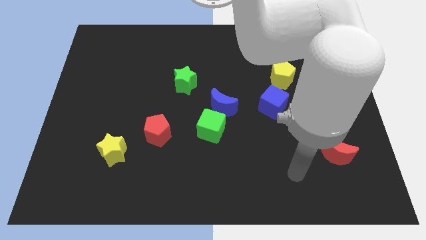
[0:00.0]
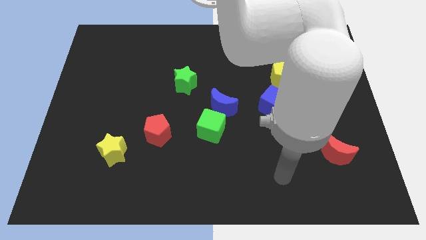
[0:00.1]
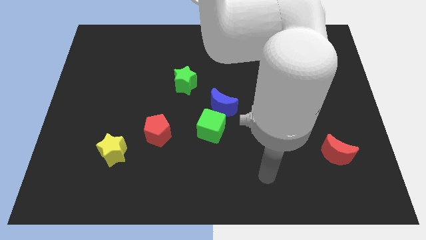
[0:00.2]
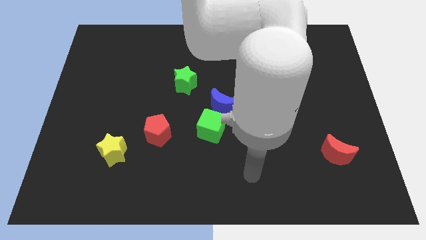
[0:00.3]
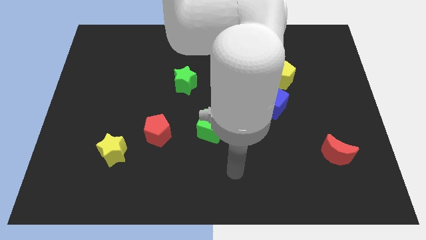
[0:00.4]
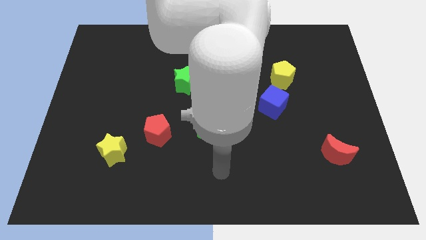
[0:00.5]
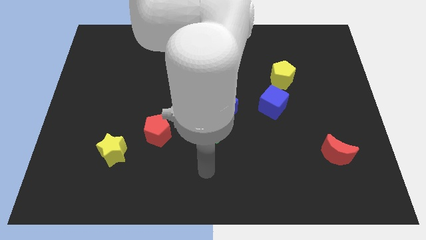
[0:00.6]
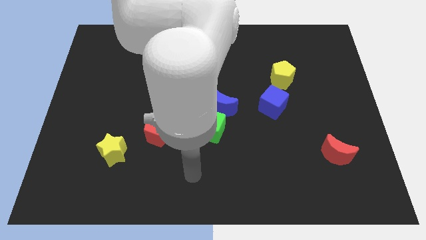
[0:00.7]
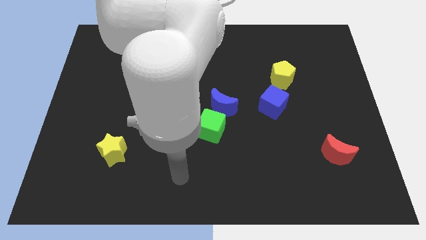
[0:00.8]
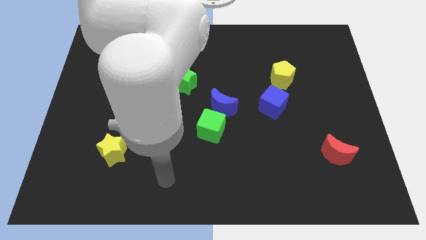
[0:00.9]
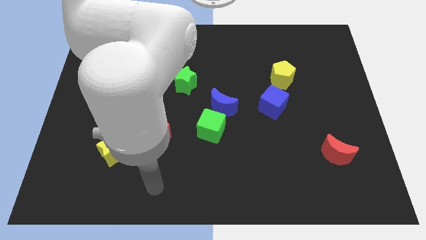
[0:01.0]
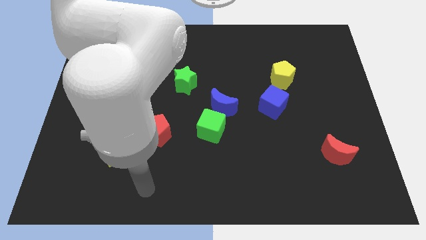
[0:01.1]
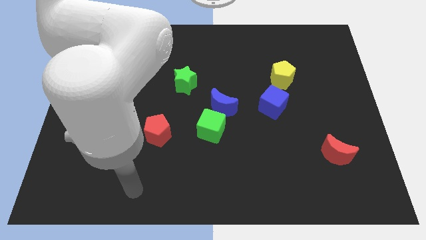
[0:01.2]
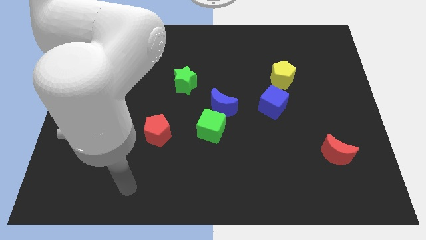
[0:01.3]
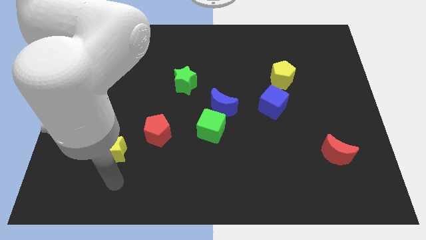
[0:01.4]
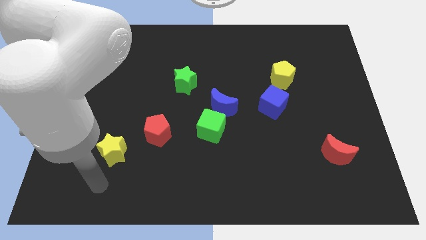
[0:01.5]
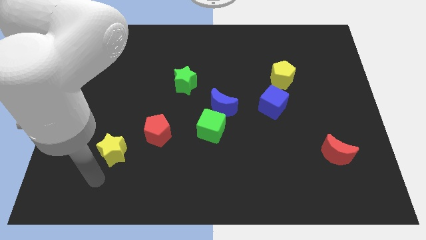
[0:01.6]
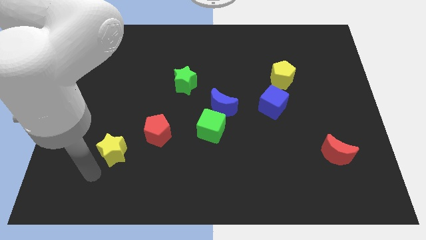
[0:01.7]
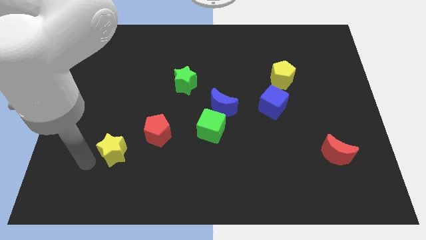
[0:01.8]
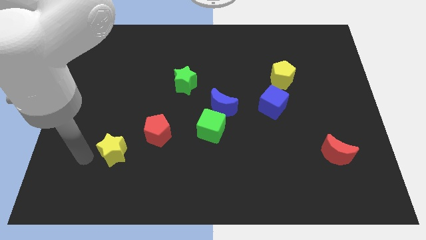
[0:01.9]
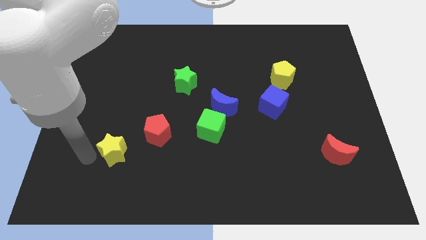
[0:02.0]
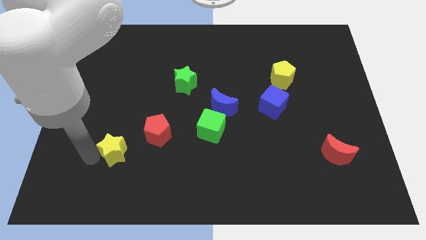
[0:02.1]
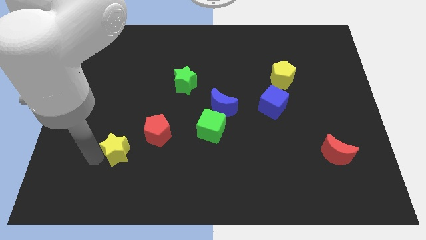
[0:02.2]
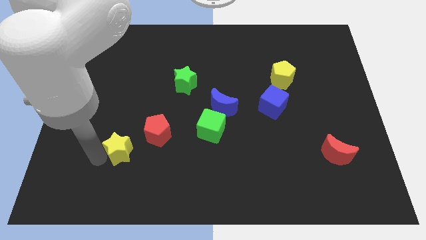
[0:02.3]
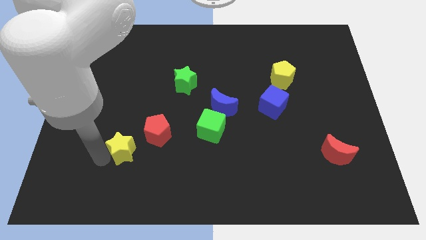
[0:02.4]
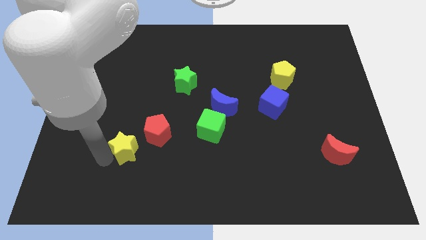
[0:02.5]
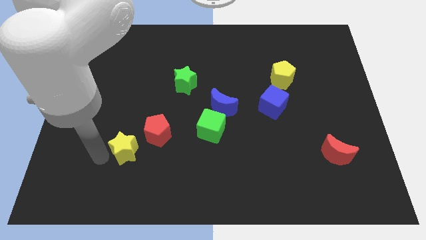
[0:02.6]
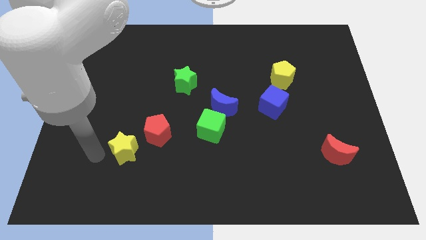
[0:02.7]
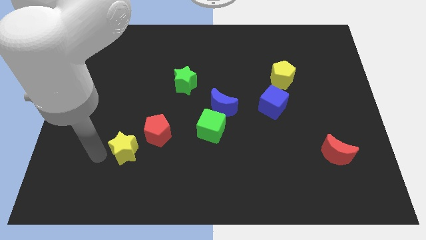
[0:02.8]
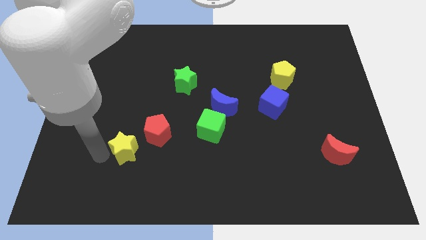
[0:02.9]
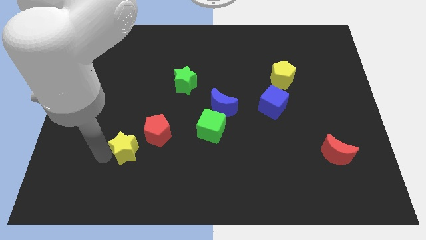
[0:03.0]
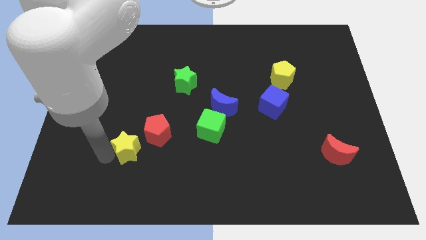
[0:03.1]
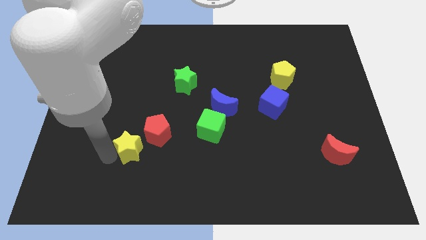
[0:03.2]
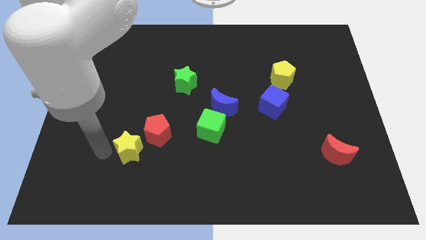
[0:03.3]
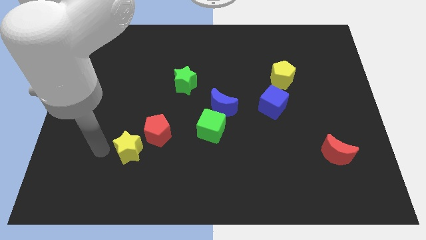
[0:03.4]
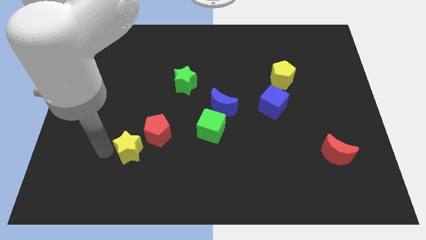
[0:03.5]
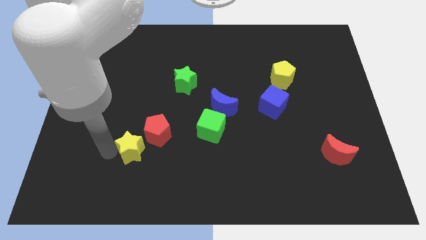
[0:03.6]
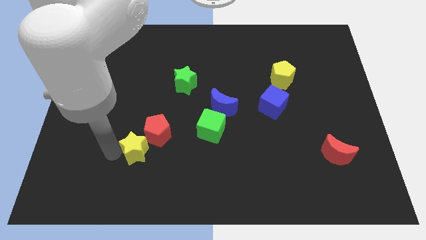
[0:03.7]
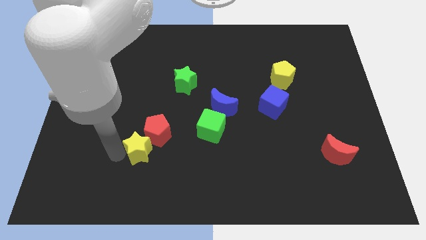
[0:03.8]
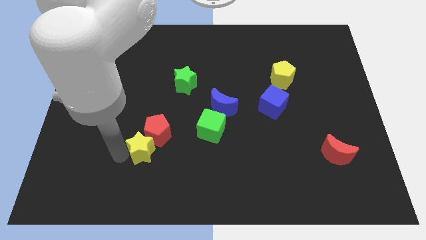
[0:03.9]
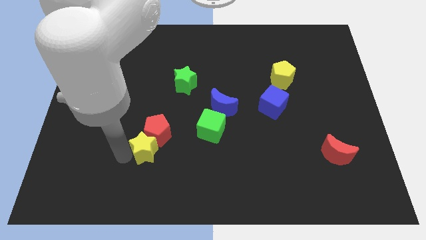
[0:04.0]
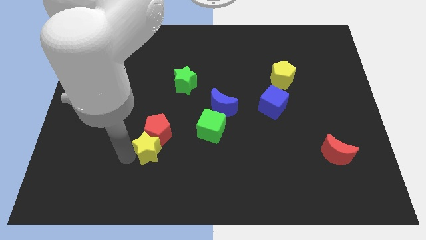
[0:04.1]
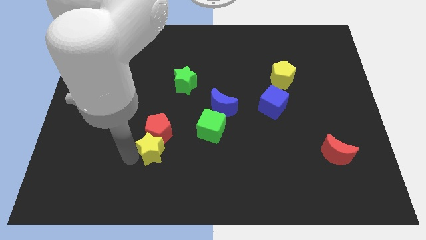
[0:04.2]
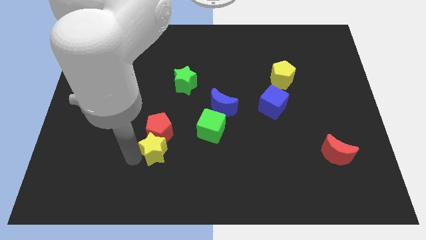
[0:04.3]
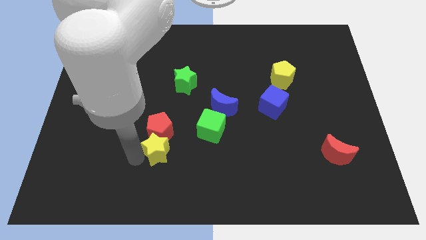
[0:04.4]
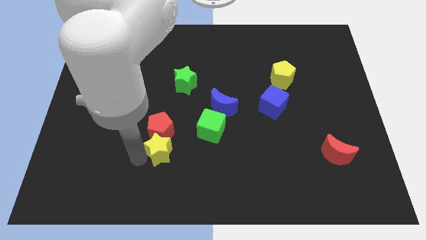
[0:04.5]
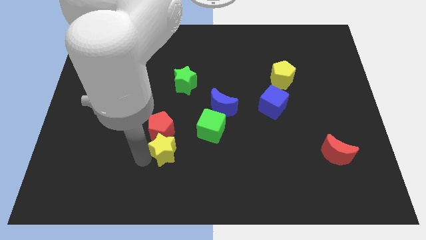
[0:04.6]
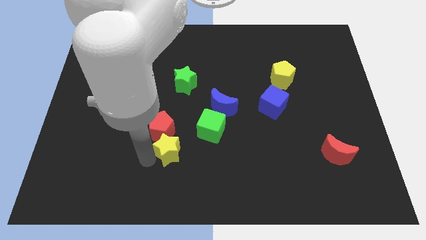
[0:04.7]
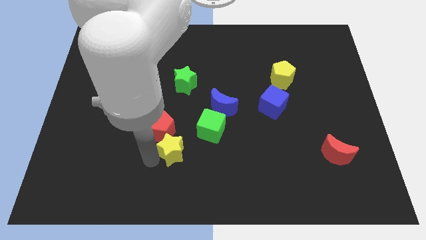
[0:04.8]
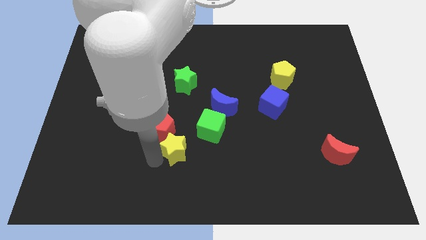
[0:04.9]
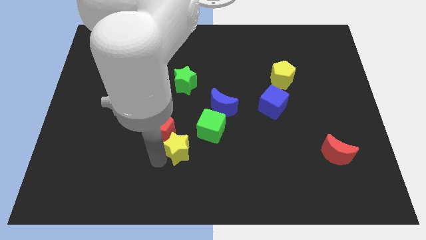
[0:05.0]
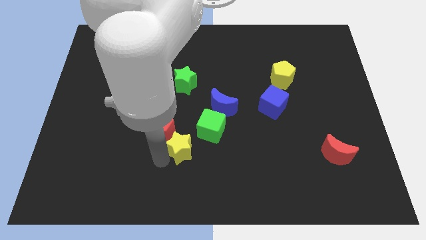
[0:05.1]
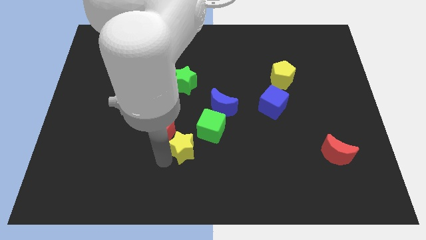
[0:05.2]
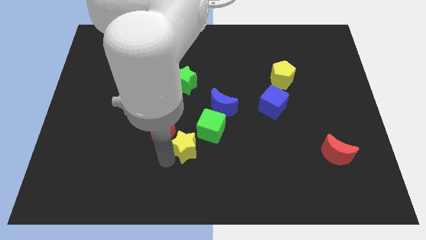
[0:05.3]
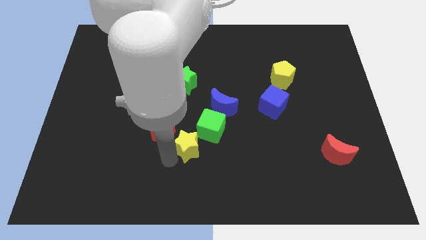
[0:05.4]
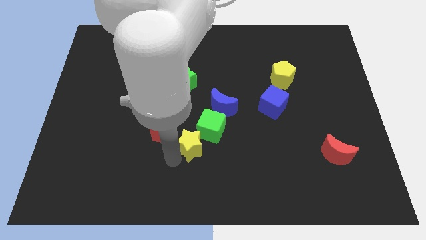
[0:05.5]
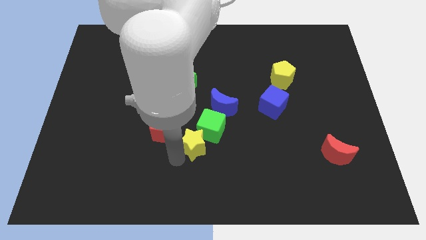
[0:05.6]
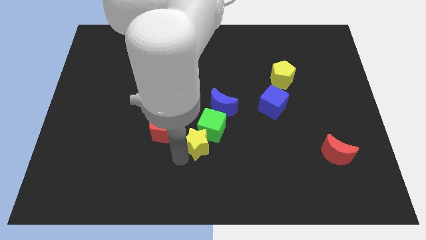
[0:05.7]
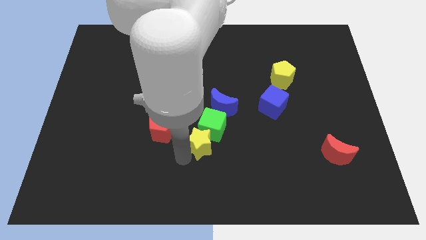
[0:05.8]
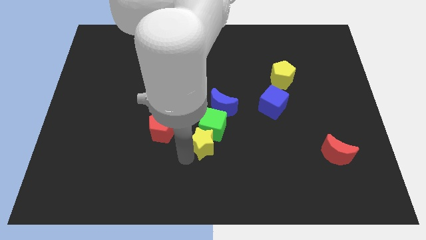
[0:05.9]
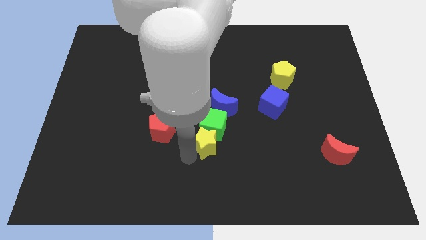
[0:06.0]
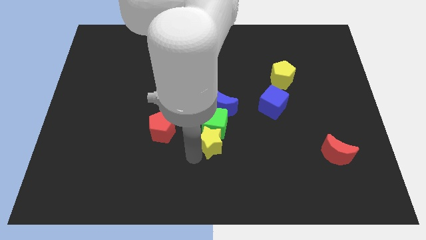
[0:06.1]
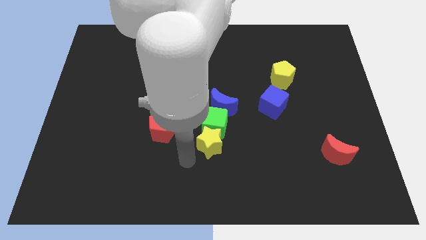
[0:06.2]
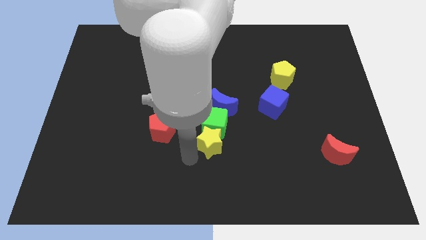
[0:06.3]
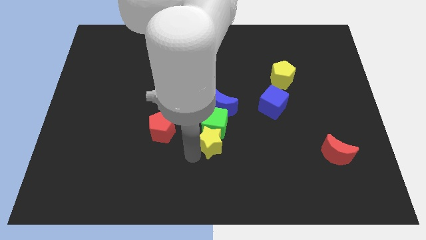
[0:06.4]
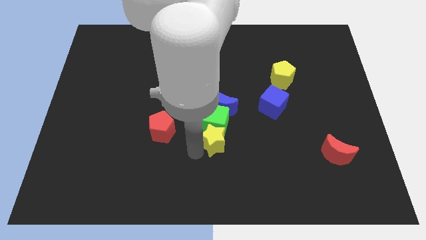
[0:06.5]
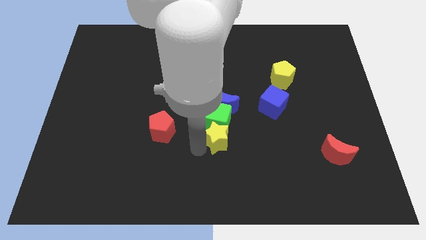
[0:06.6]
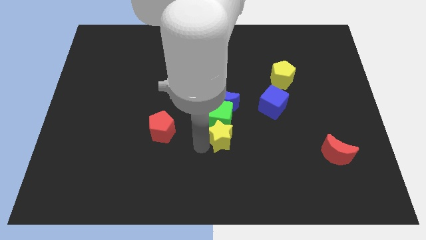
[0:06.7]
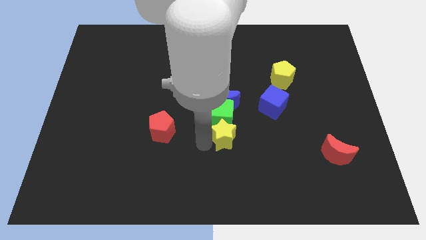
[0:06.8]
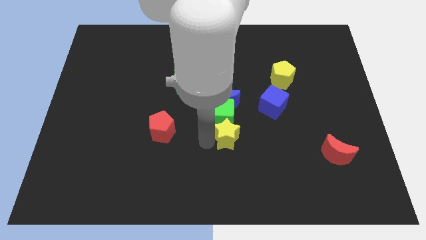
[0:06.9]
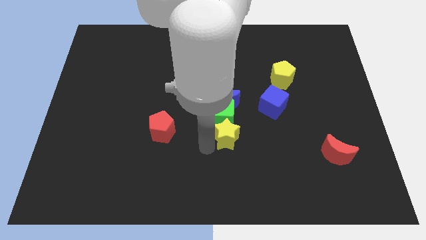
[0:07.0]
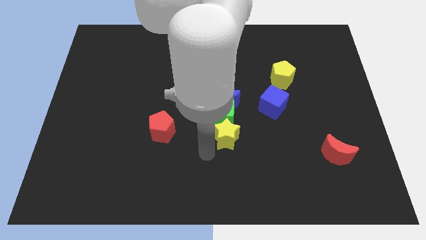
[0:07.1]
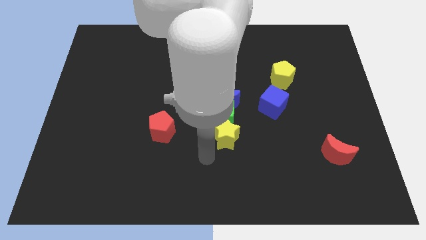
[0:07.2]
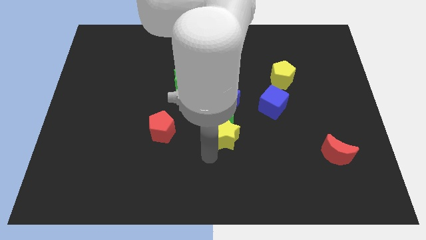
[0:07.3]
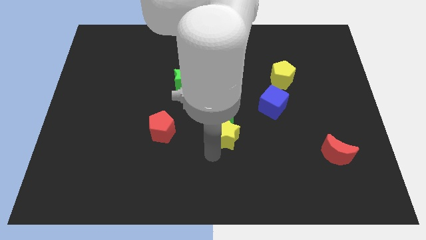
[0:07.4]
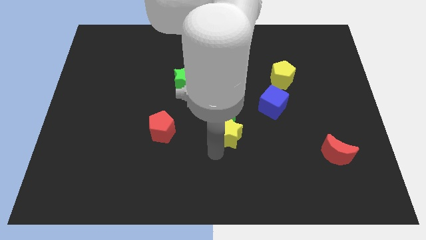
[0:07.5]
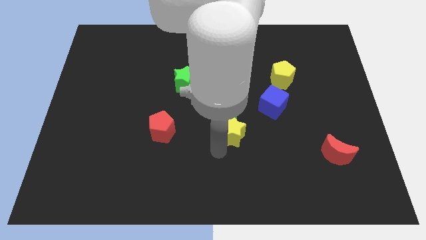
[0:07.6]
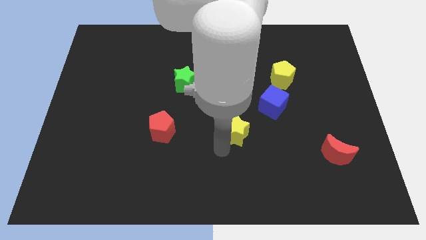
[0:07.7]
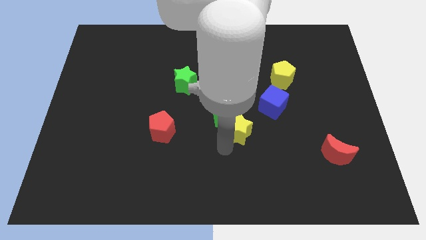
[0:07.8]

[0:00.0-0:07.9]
push the yellow star diagonally down and to the right of the blue moon
